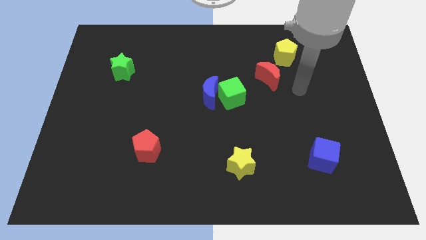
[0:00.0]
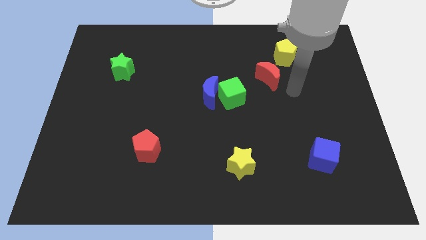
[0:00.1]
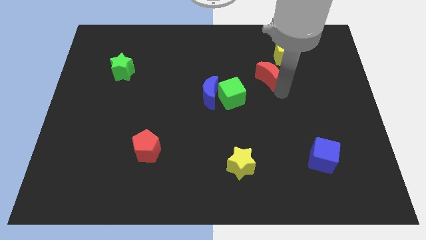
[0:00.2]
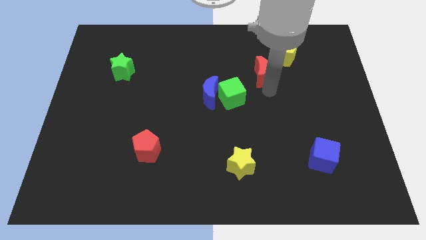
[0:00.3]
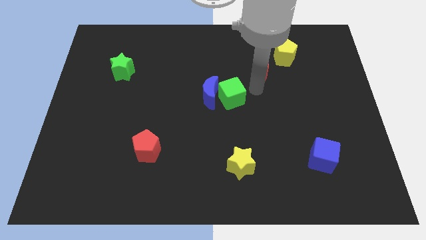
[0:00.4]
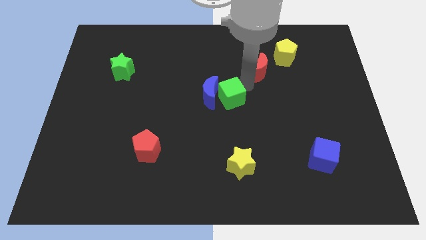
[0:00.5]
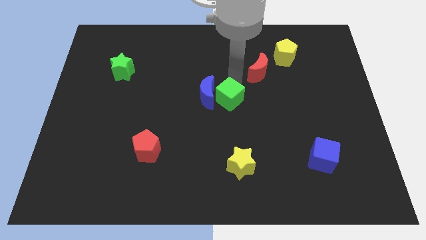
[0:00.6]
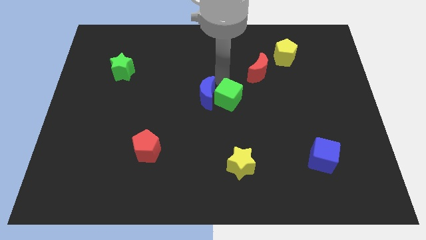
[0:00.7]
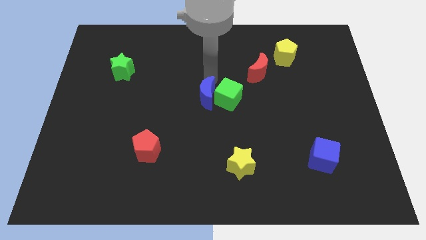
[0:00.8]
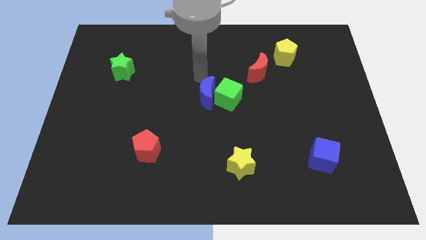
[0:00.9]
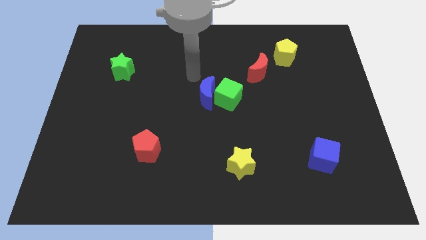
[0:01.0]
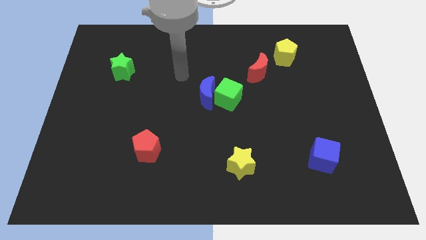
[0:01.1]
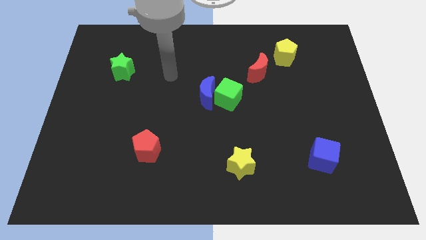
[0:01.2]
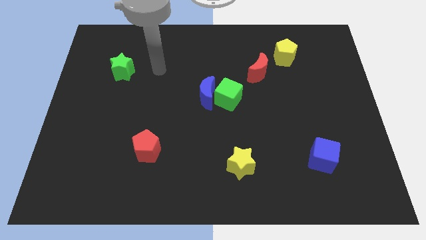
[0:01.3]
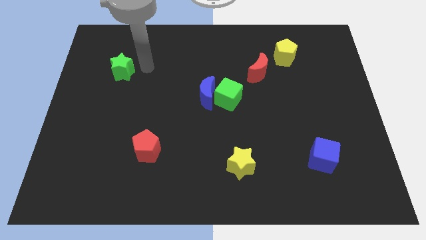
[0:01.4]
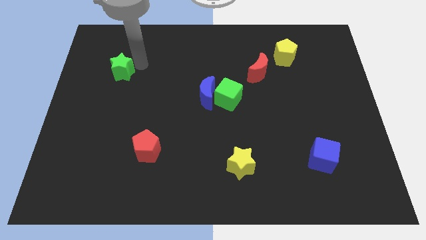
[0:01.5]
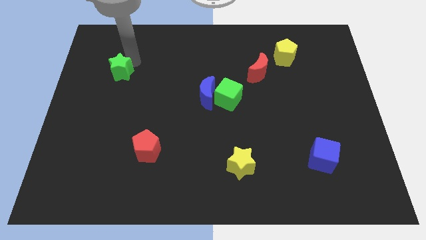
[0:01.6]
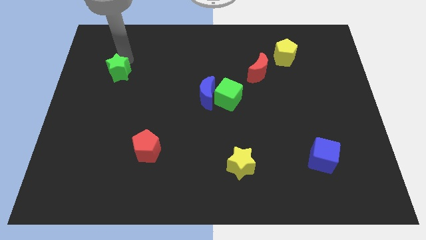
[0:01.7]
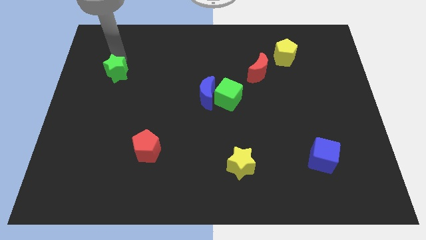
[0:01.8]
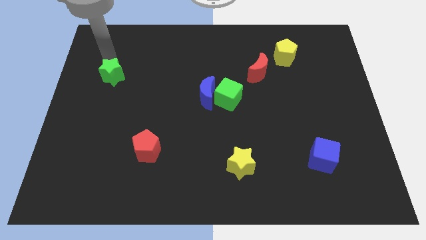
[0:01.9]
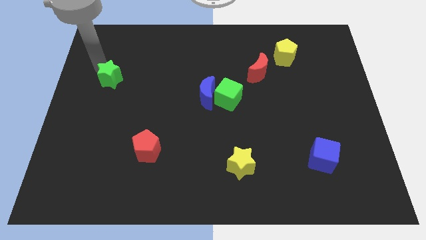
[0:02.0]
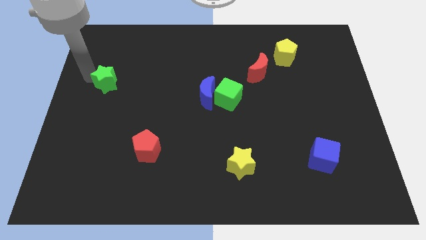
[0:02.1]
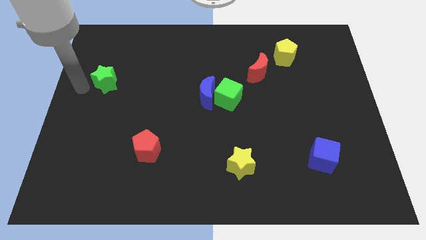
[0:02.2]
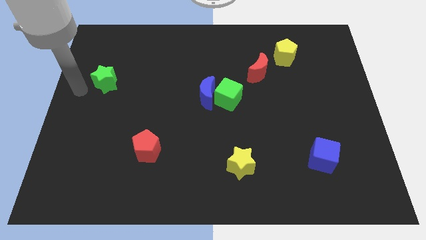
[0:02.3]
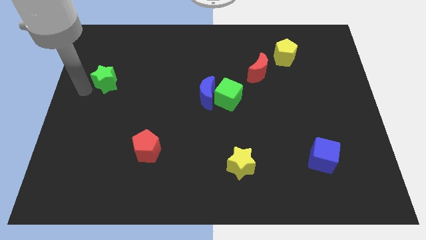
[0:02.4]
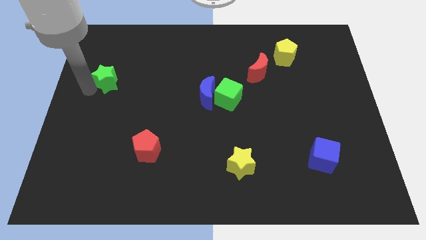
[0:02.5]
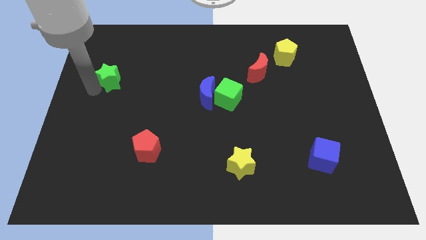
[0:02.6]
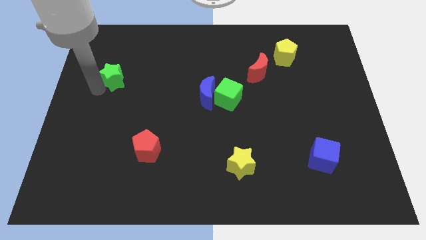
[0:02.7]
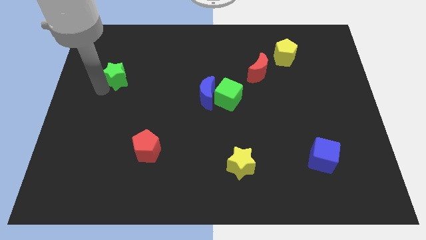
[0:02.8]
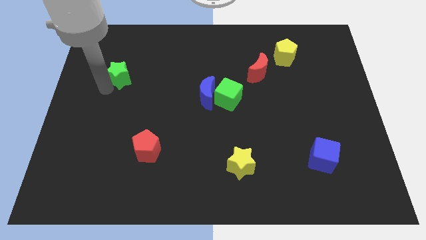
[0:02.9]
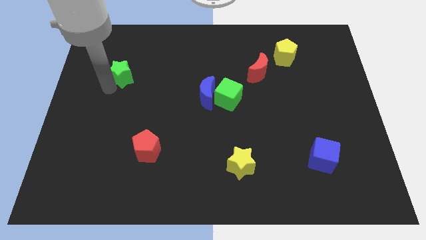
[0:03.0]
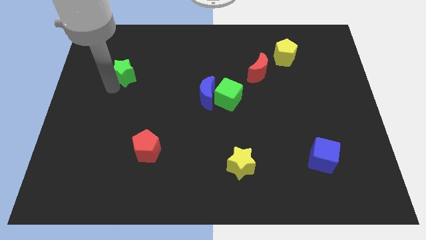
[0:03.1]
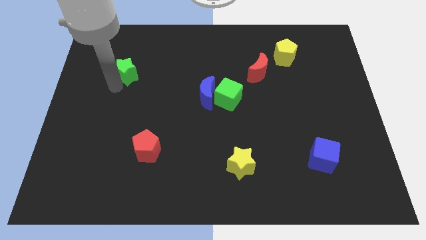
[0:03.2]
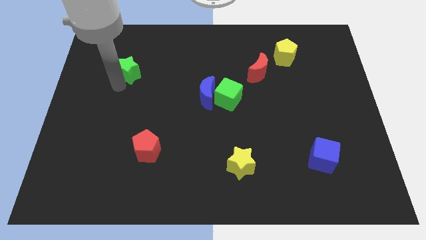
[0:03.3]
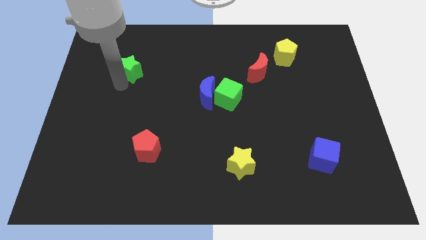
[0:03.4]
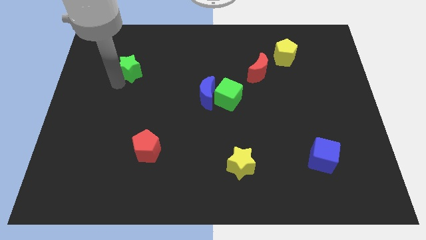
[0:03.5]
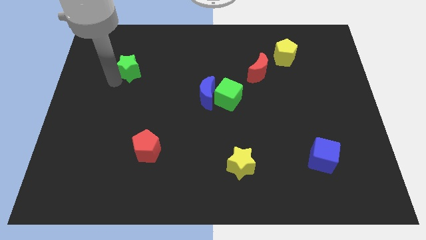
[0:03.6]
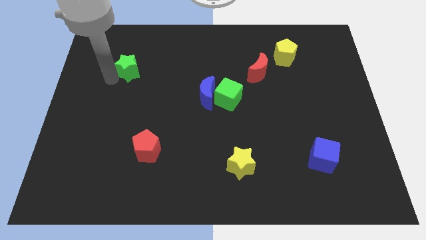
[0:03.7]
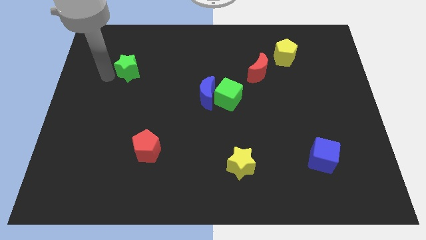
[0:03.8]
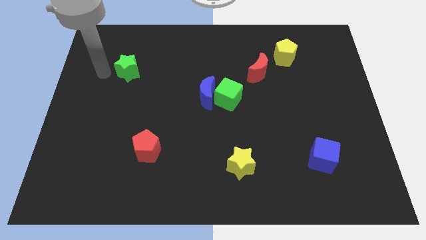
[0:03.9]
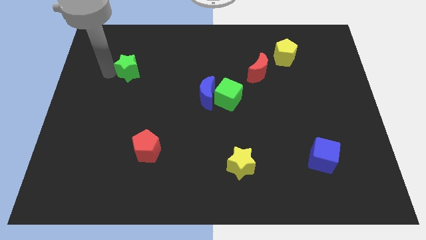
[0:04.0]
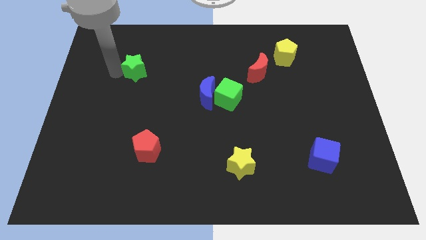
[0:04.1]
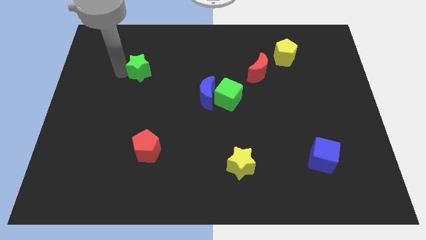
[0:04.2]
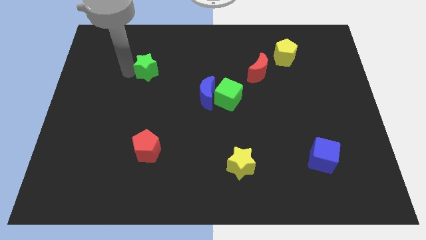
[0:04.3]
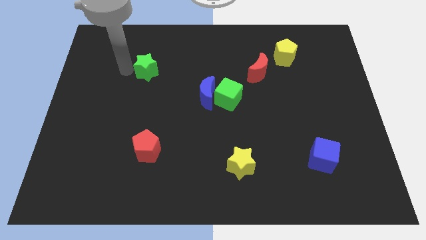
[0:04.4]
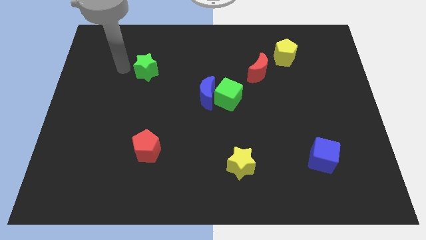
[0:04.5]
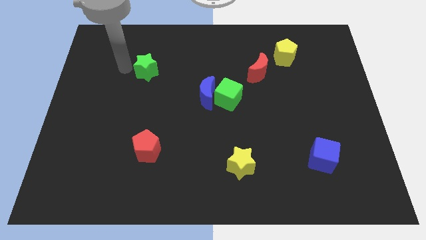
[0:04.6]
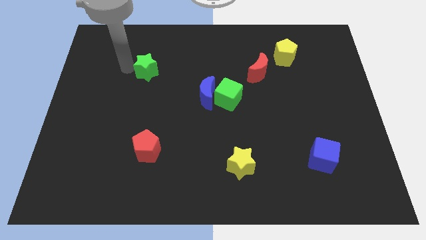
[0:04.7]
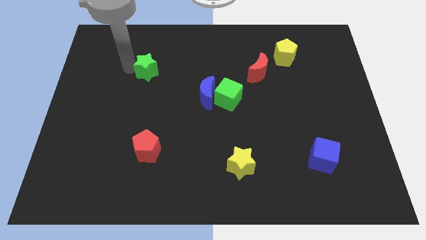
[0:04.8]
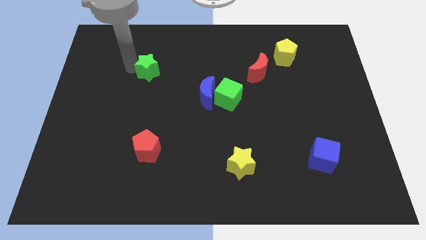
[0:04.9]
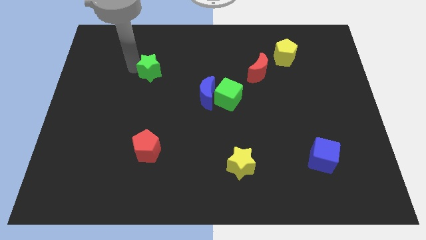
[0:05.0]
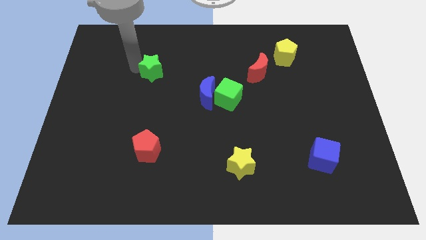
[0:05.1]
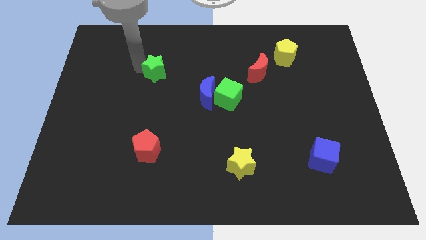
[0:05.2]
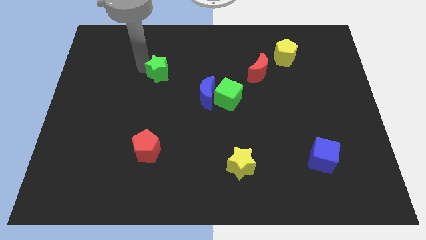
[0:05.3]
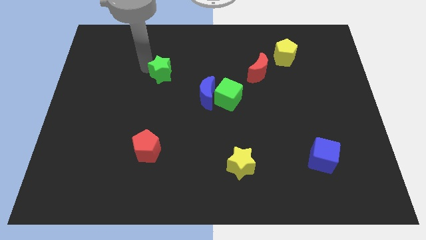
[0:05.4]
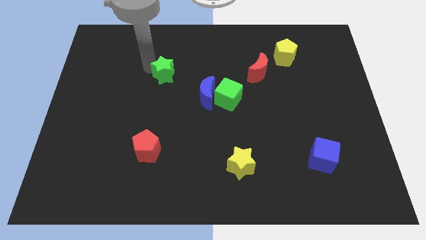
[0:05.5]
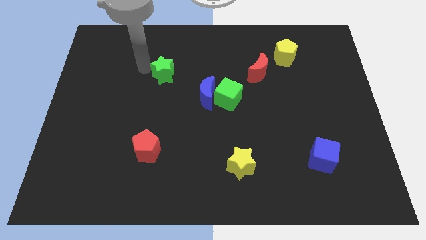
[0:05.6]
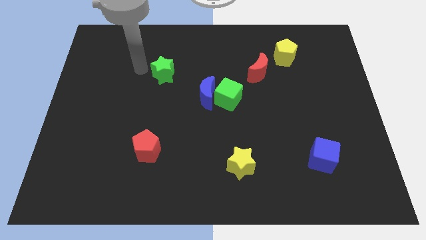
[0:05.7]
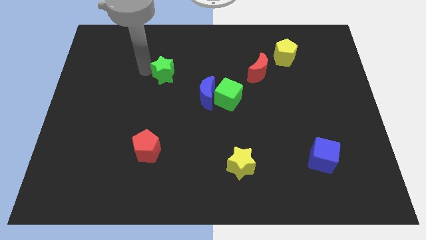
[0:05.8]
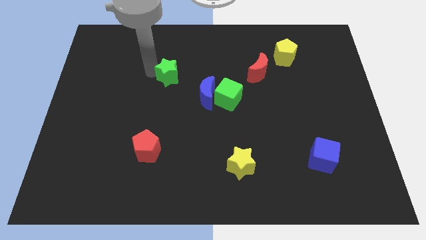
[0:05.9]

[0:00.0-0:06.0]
put the green star to the top left of the blue moon

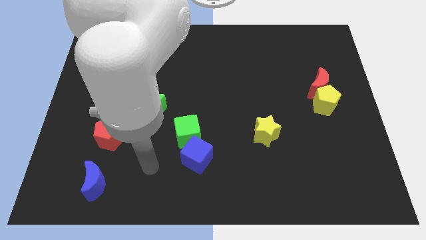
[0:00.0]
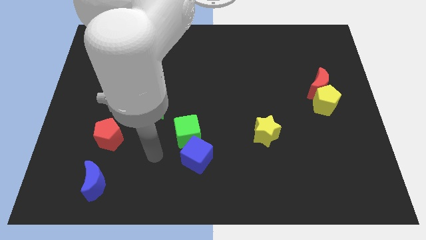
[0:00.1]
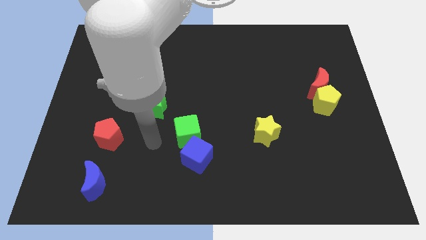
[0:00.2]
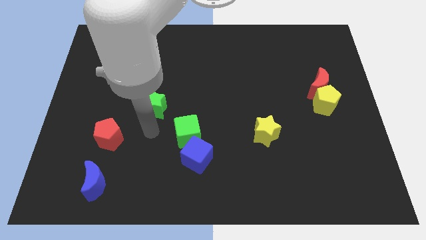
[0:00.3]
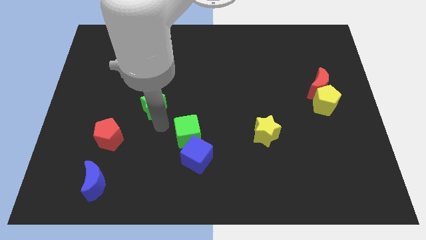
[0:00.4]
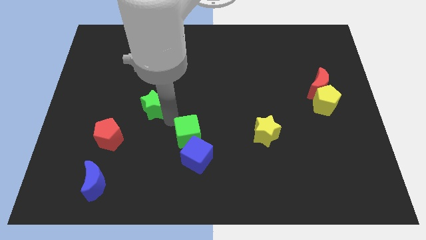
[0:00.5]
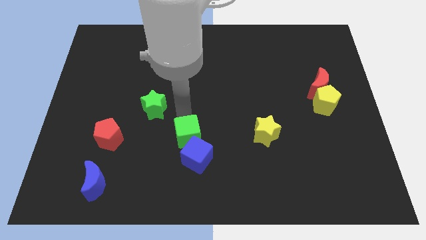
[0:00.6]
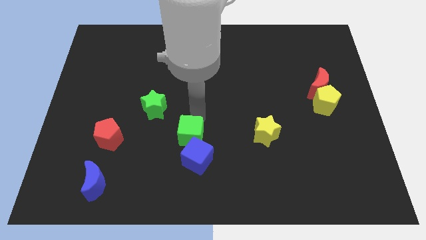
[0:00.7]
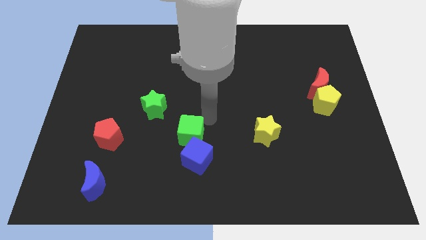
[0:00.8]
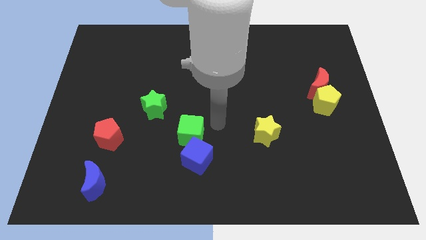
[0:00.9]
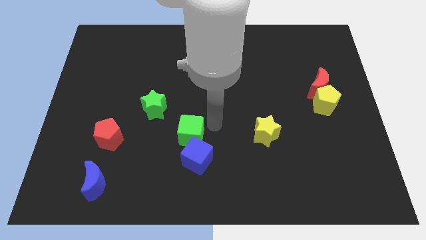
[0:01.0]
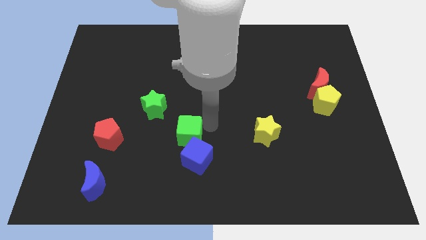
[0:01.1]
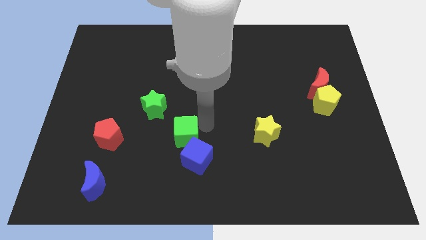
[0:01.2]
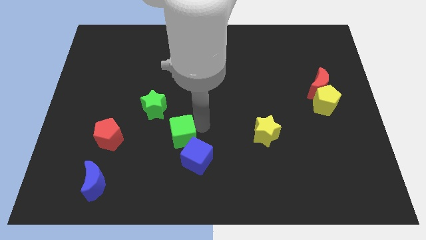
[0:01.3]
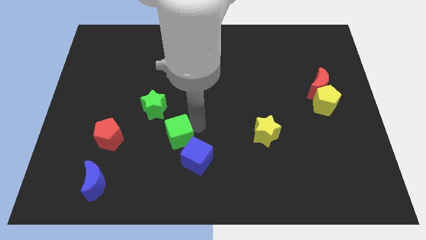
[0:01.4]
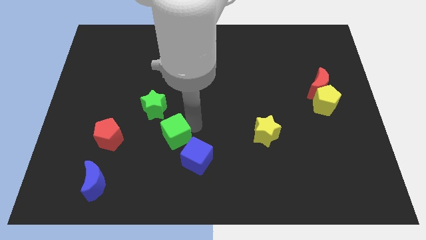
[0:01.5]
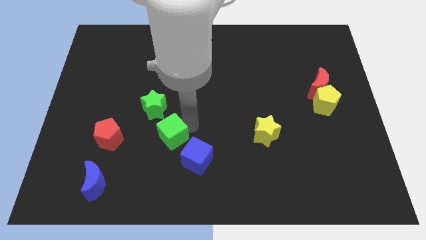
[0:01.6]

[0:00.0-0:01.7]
slide the green cube to the bottom side of the green star
